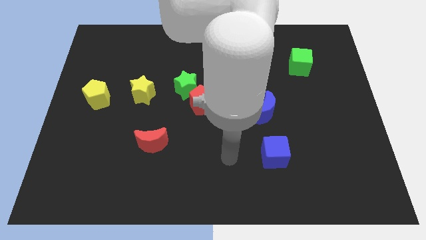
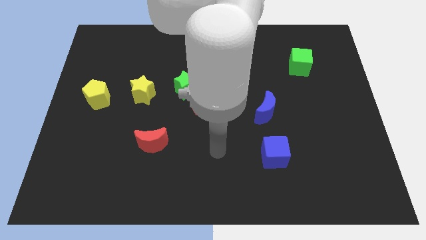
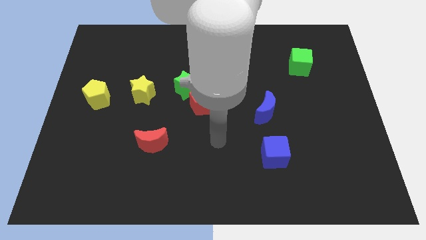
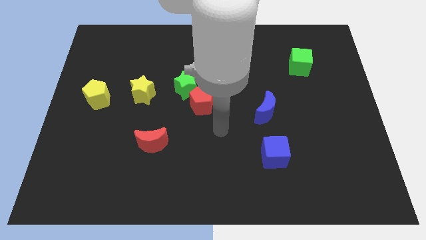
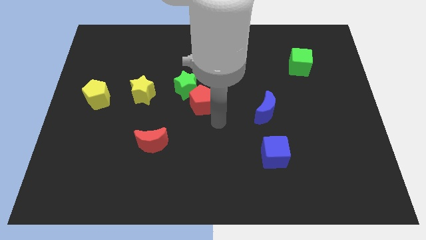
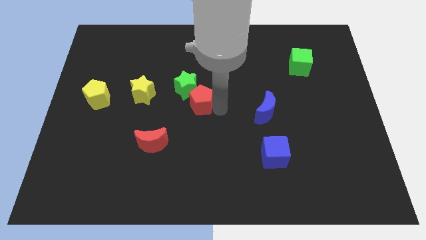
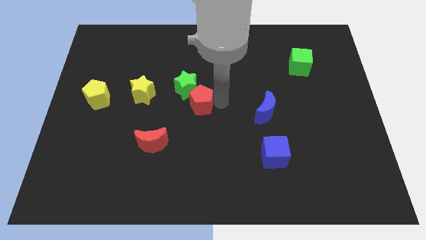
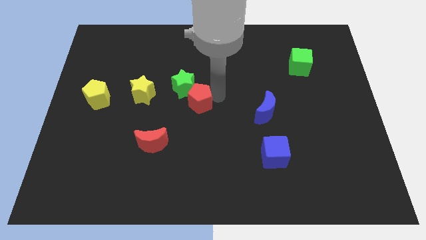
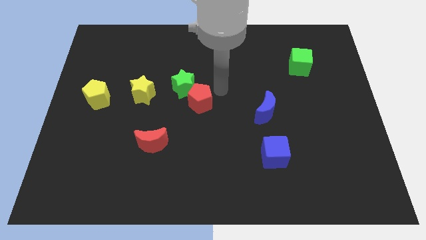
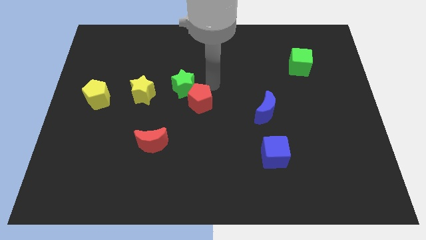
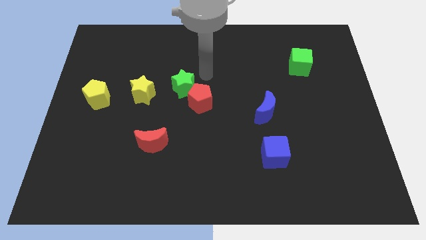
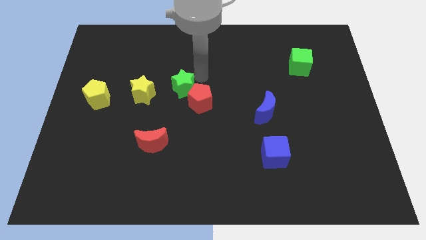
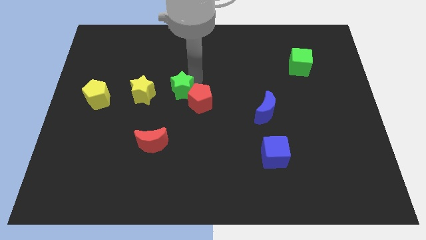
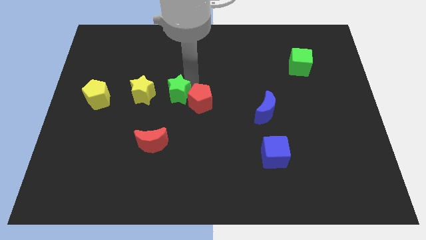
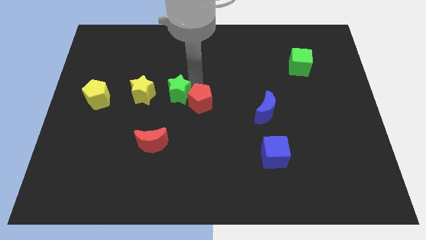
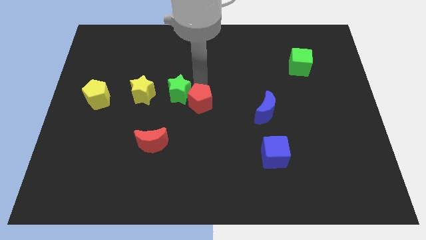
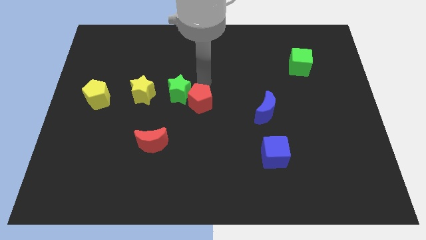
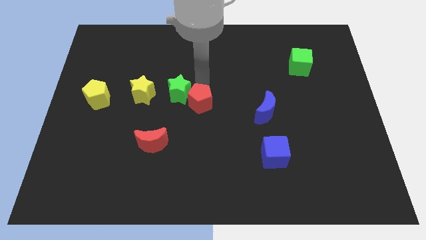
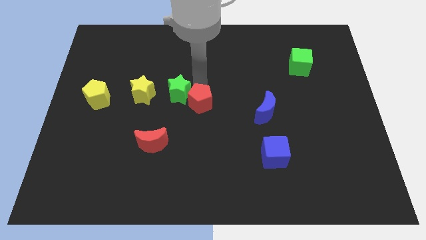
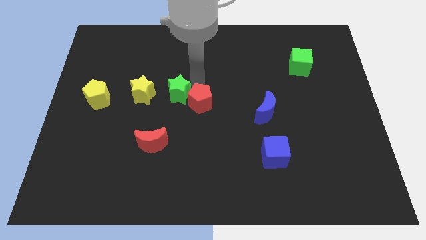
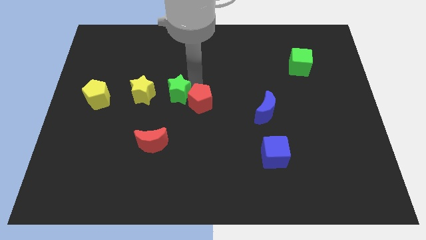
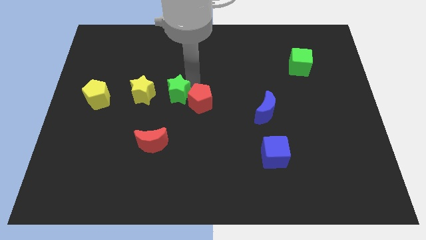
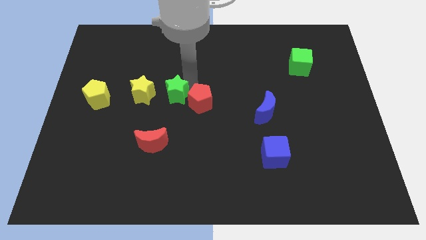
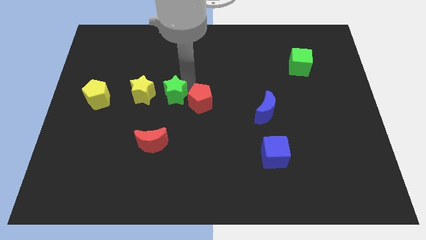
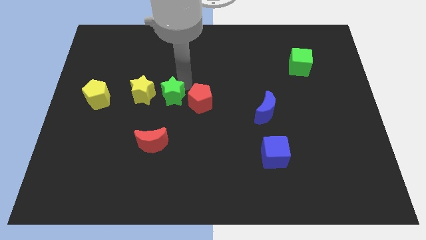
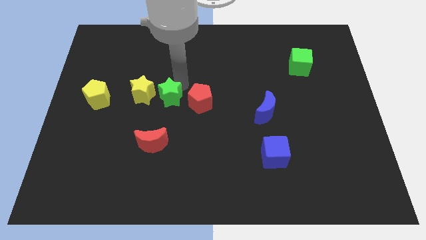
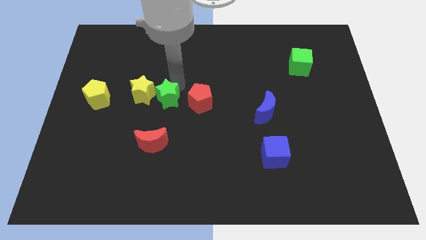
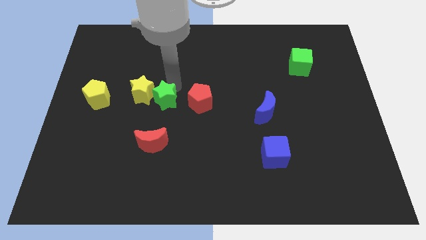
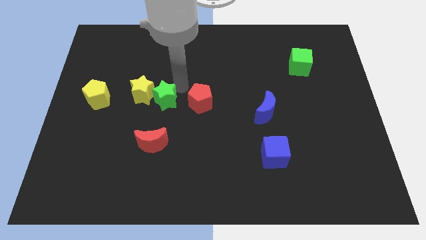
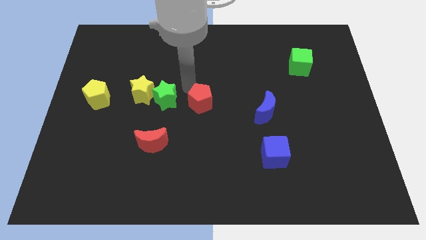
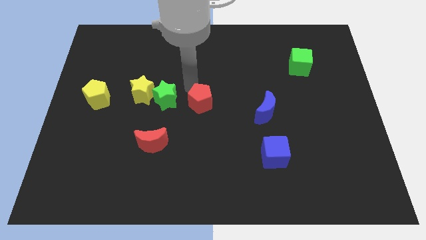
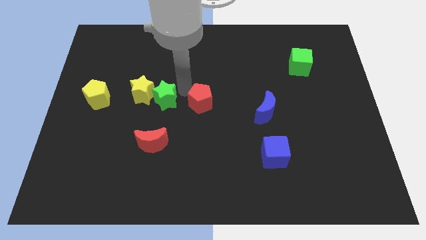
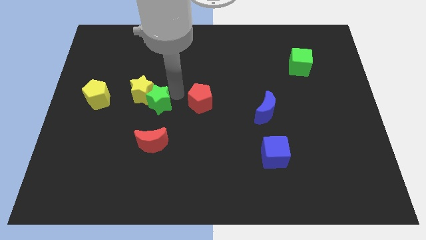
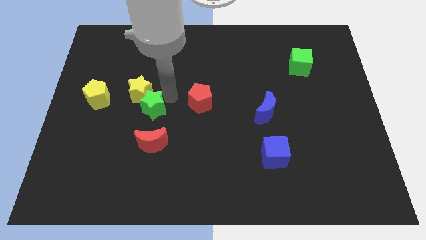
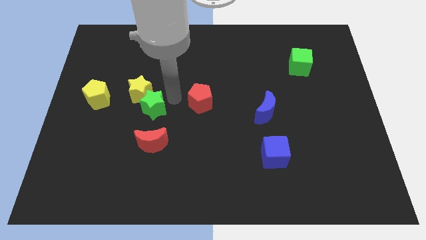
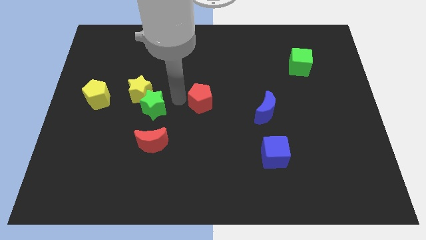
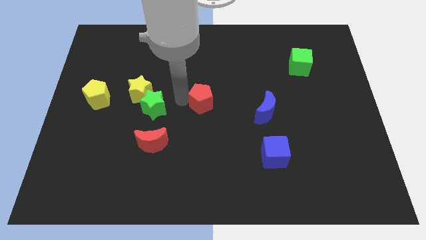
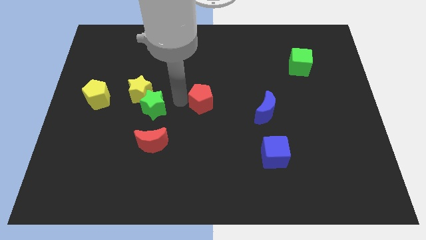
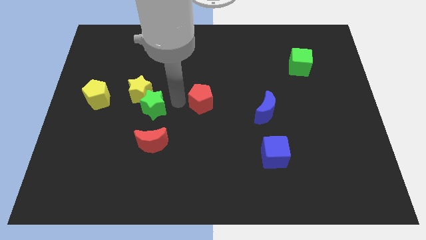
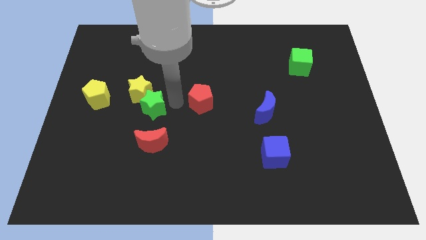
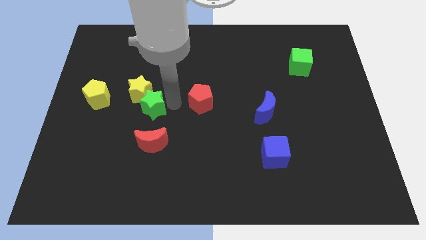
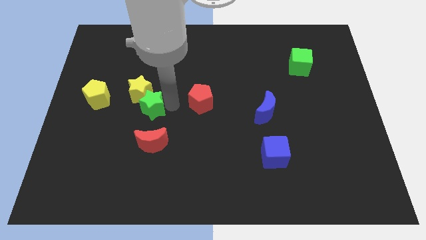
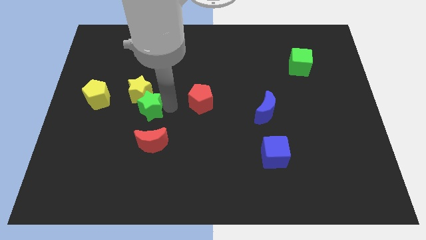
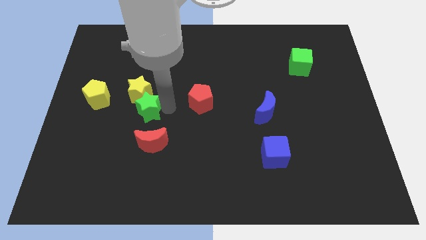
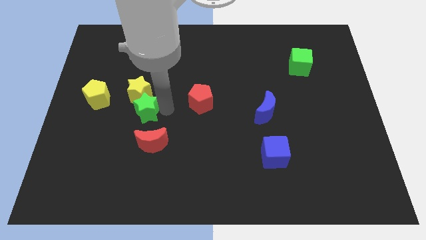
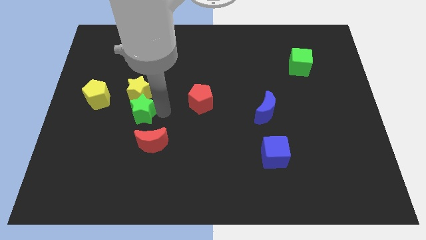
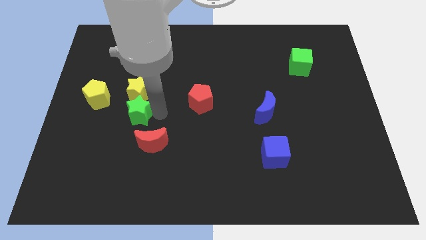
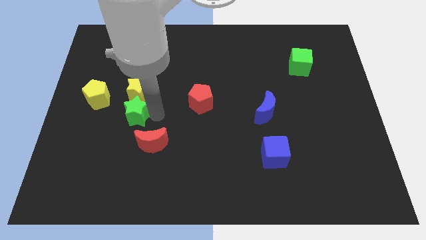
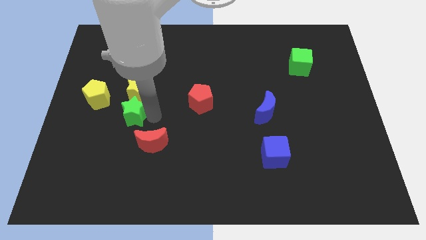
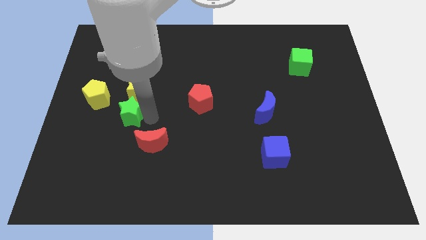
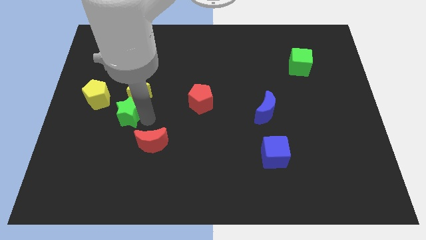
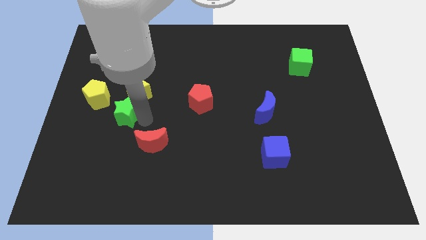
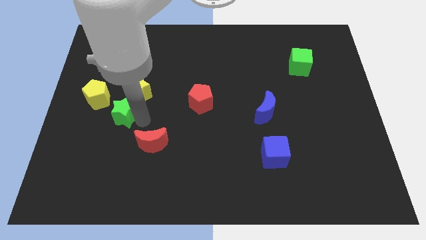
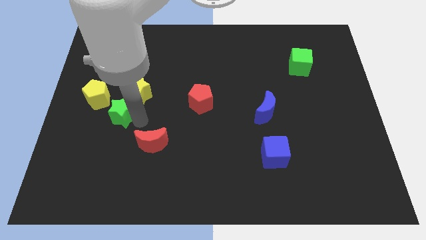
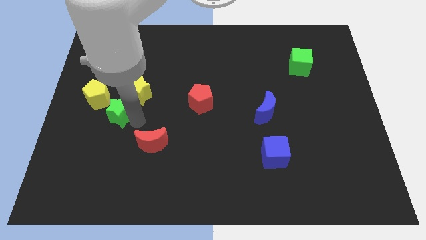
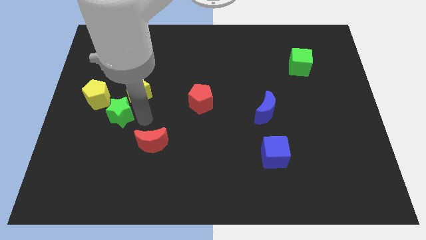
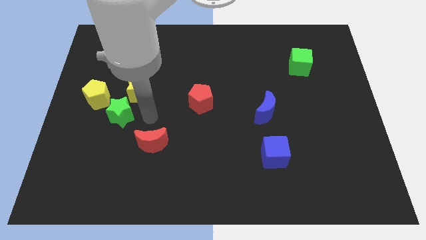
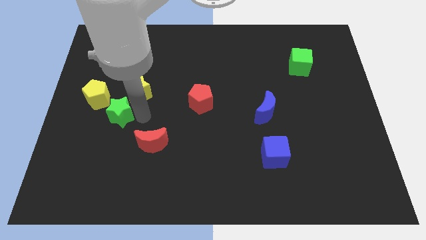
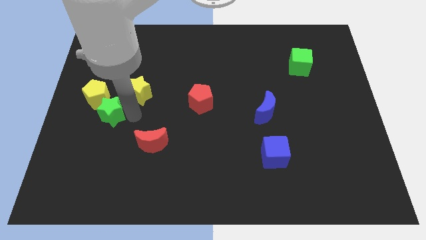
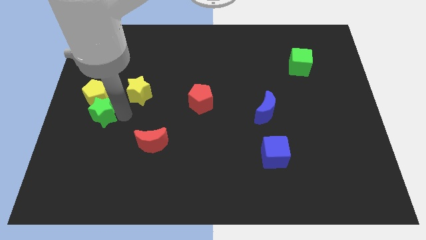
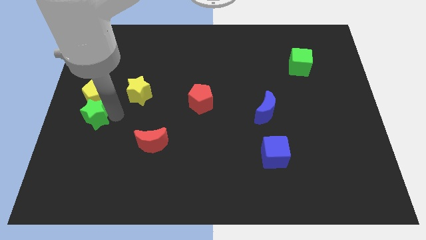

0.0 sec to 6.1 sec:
put the green star to the center left
